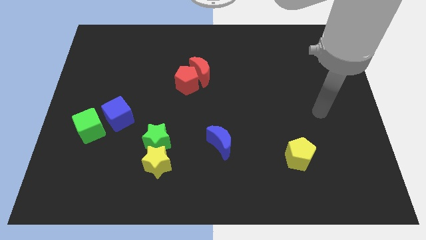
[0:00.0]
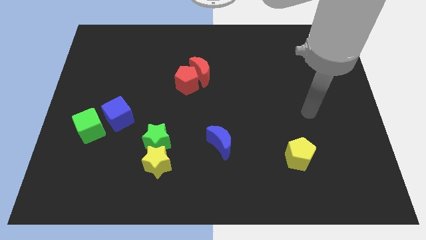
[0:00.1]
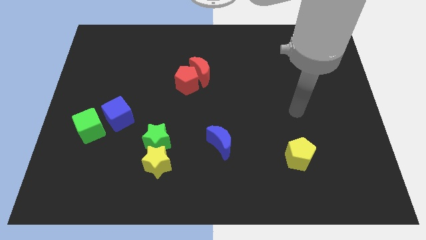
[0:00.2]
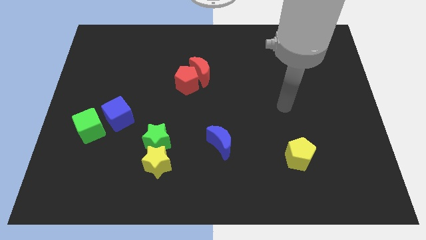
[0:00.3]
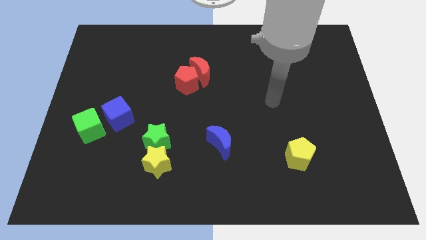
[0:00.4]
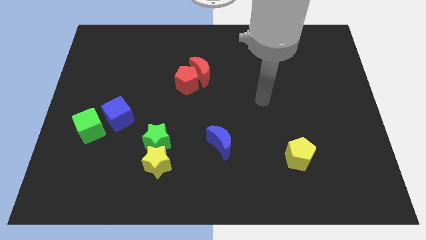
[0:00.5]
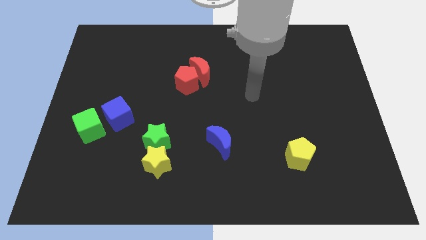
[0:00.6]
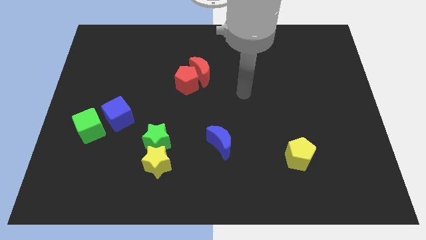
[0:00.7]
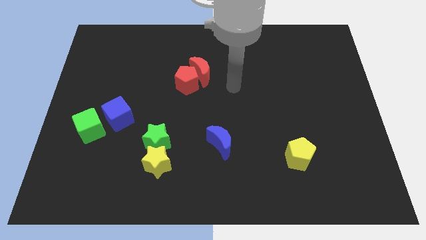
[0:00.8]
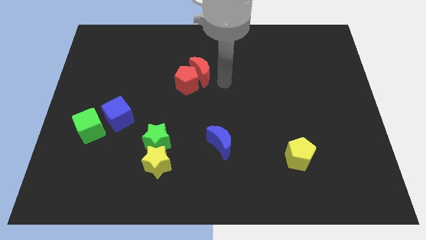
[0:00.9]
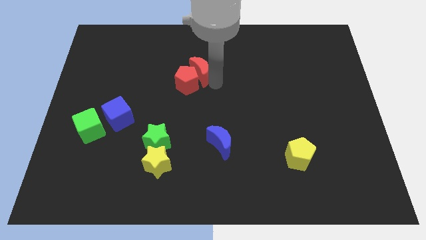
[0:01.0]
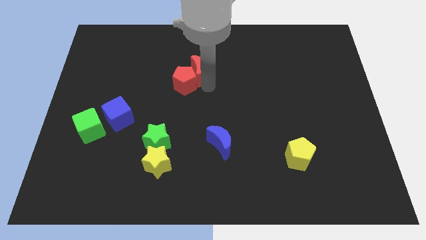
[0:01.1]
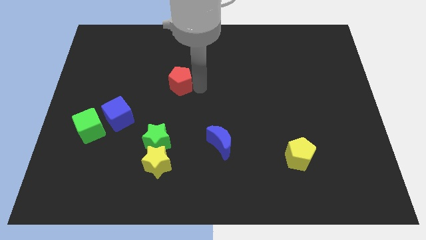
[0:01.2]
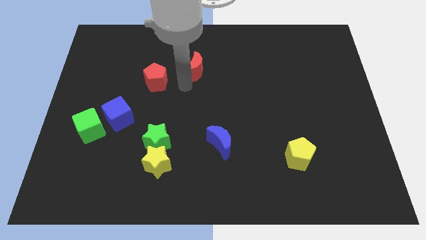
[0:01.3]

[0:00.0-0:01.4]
pull the red moon apart from the red pentagon

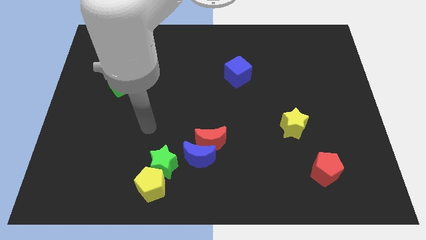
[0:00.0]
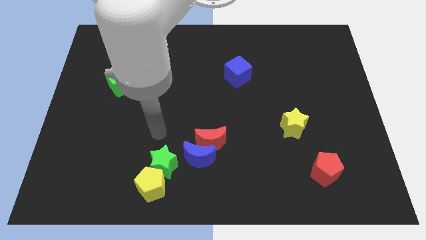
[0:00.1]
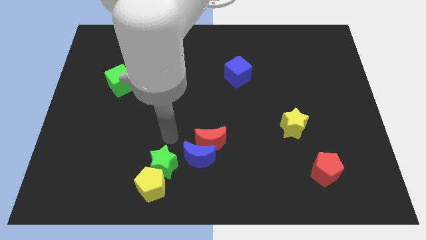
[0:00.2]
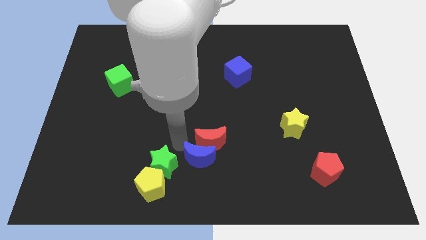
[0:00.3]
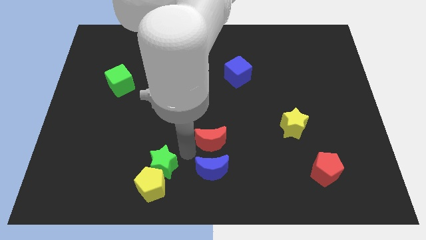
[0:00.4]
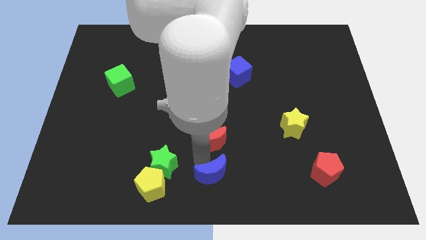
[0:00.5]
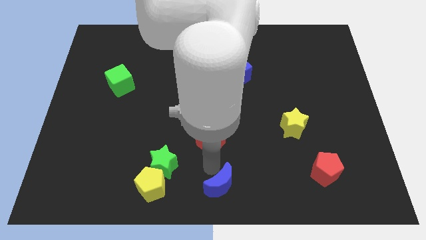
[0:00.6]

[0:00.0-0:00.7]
pull the red moon apart from the blue moon

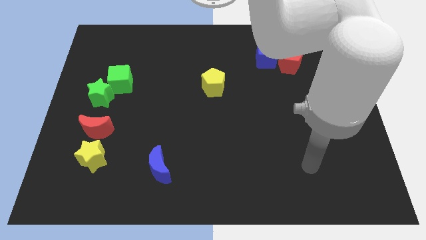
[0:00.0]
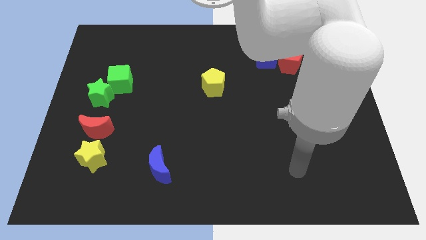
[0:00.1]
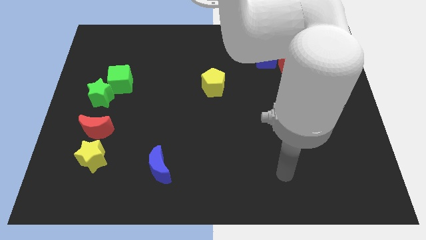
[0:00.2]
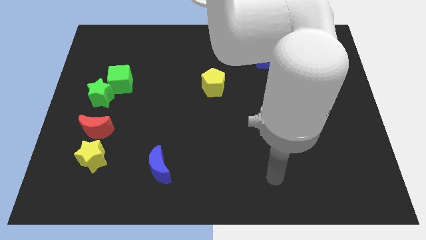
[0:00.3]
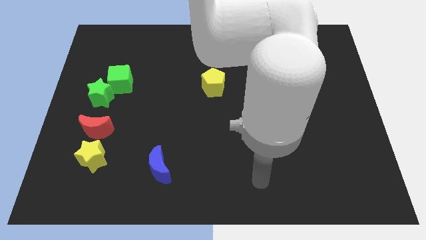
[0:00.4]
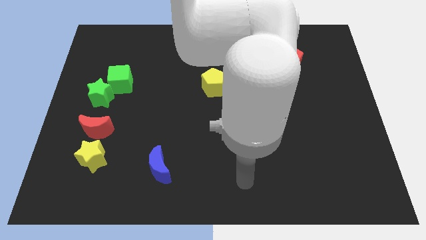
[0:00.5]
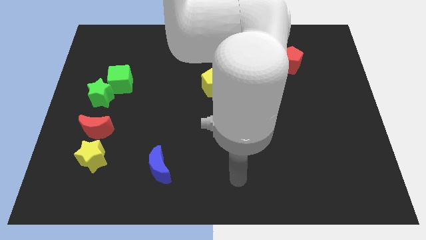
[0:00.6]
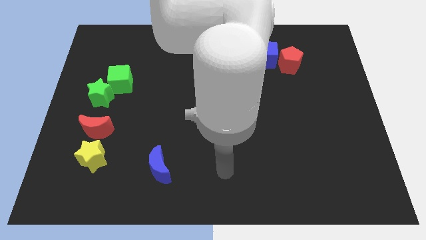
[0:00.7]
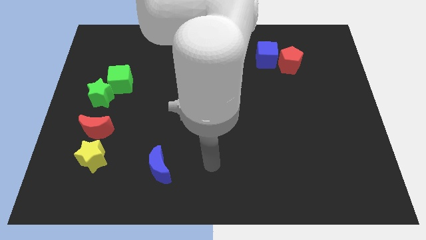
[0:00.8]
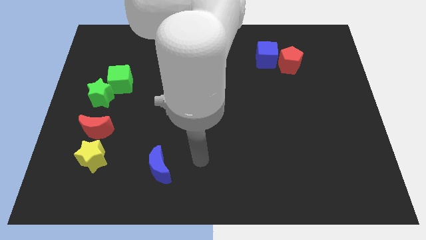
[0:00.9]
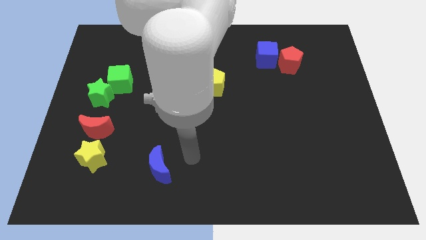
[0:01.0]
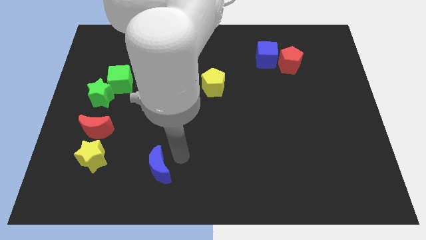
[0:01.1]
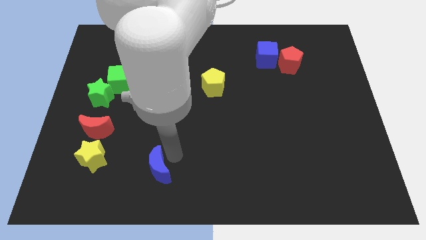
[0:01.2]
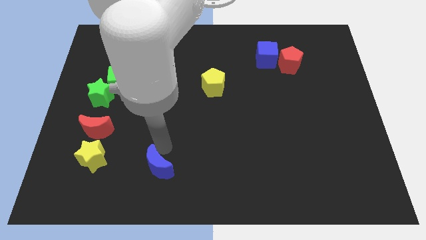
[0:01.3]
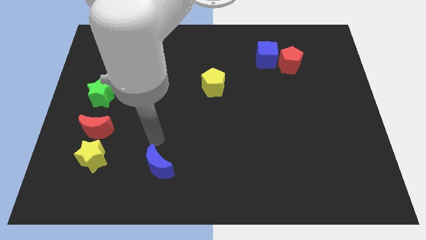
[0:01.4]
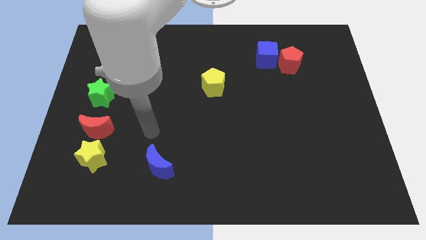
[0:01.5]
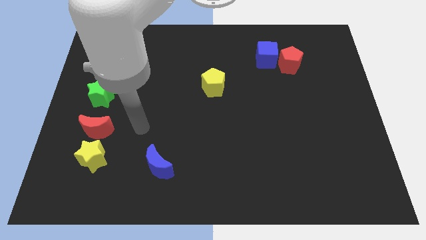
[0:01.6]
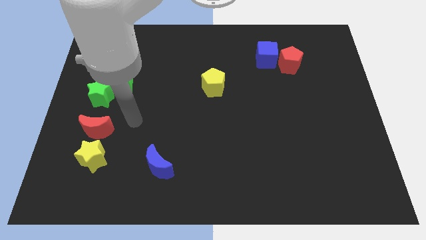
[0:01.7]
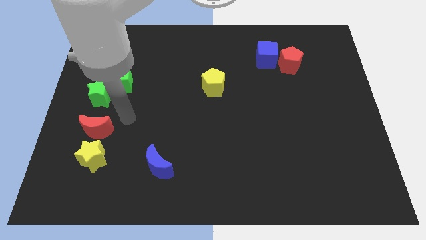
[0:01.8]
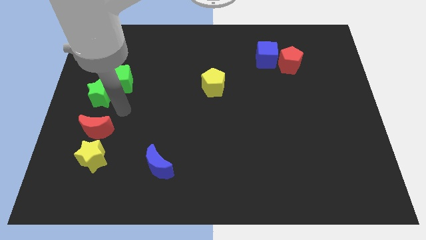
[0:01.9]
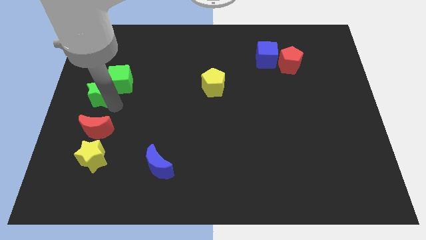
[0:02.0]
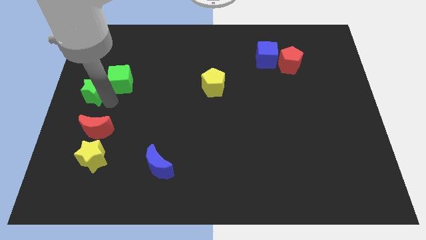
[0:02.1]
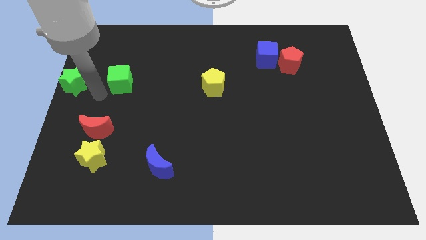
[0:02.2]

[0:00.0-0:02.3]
move the green cube away from the green star

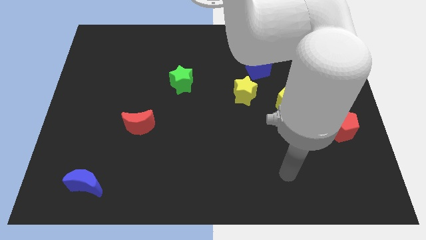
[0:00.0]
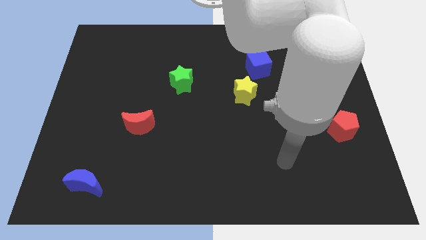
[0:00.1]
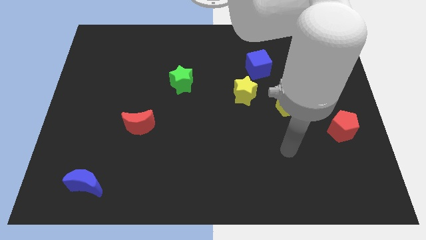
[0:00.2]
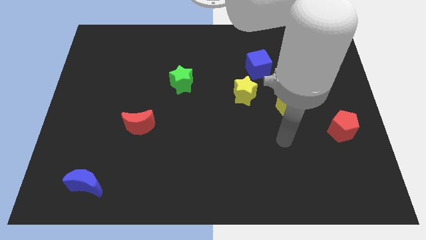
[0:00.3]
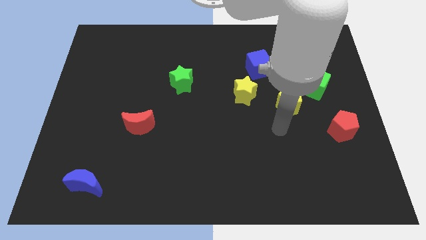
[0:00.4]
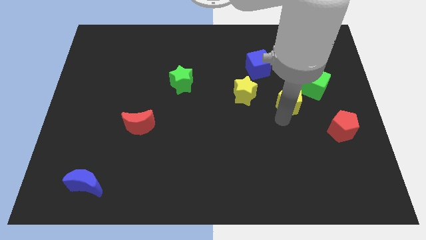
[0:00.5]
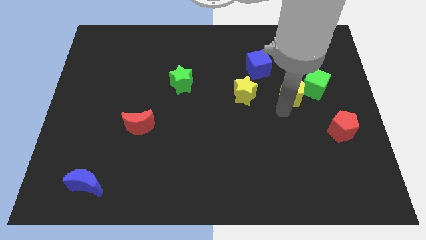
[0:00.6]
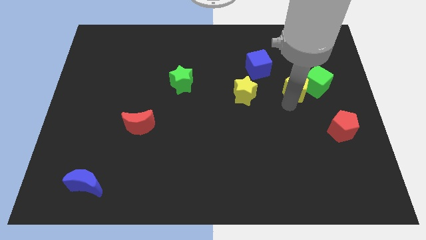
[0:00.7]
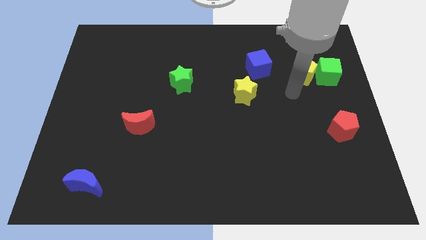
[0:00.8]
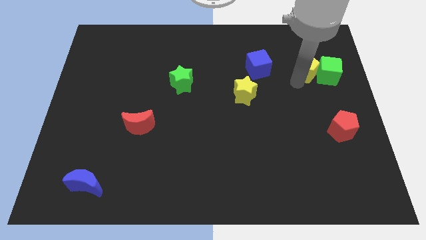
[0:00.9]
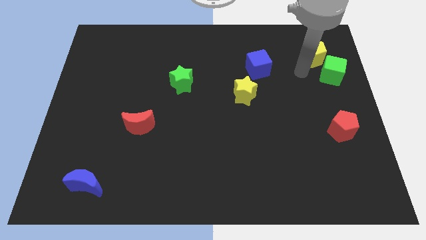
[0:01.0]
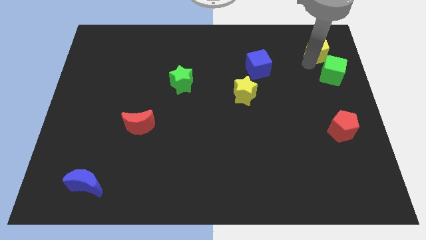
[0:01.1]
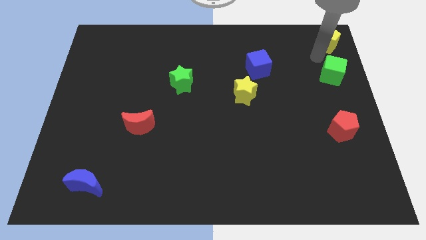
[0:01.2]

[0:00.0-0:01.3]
pull the green cube apart from the yellow pentagon

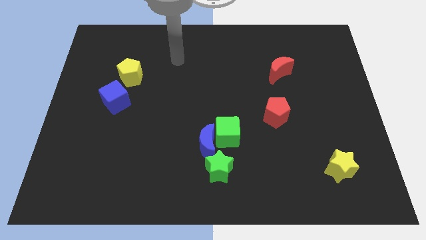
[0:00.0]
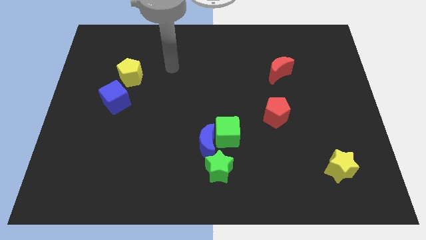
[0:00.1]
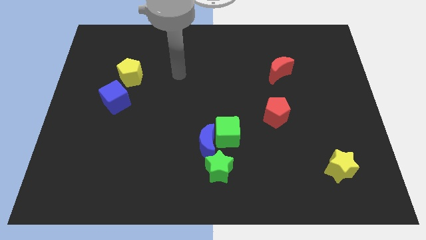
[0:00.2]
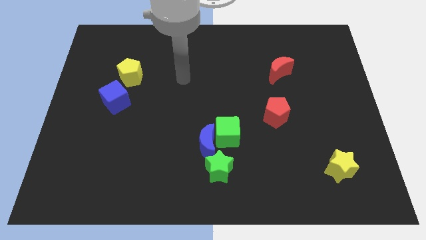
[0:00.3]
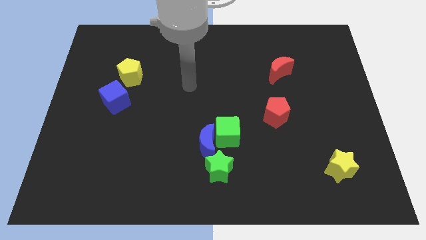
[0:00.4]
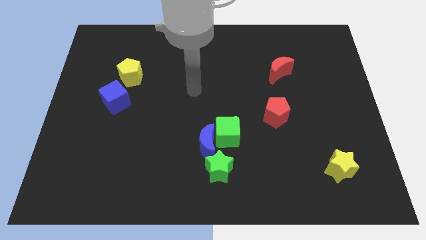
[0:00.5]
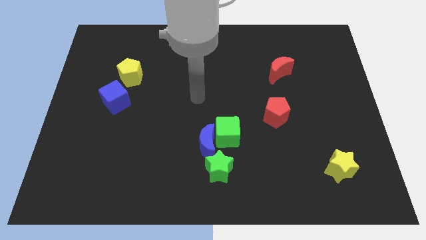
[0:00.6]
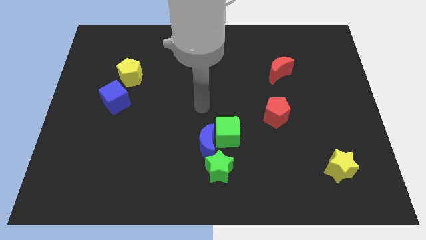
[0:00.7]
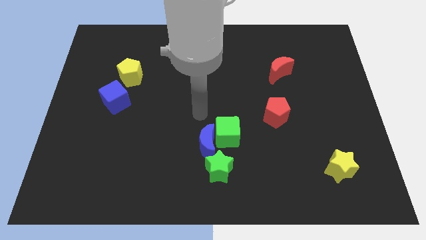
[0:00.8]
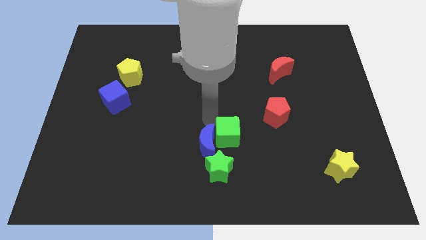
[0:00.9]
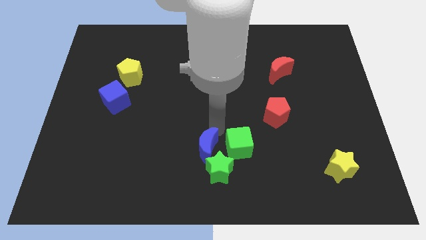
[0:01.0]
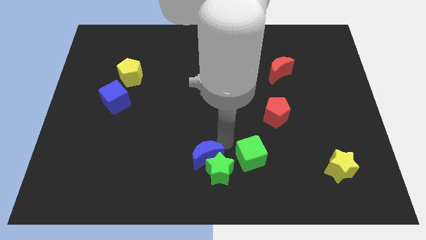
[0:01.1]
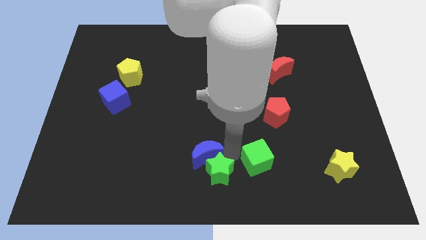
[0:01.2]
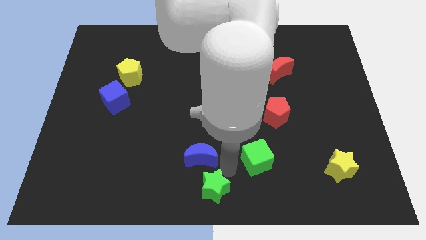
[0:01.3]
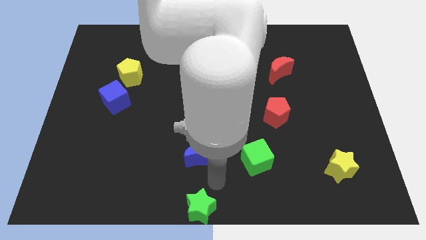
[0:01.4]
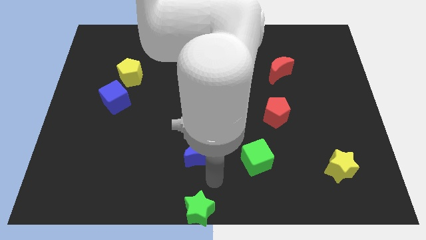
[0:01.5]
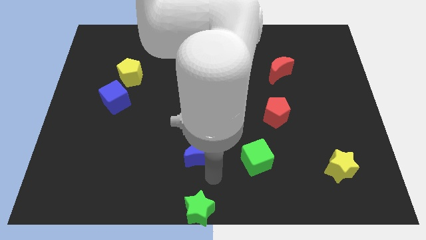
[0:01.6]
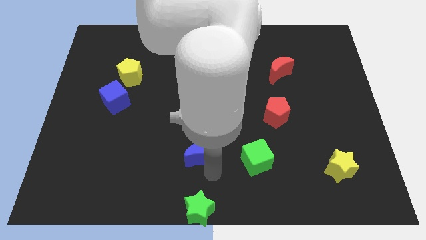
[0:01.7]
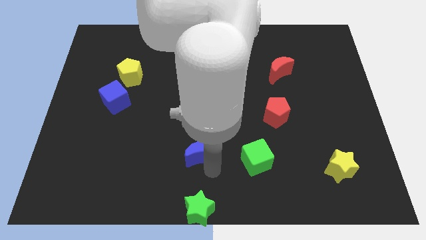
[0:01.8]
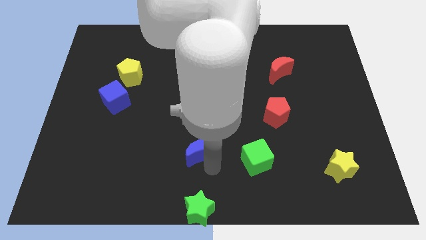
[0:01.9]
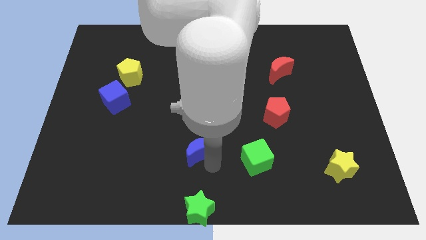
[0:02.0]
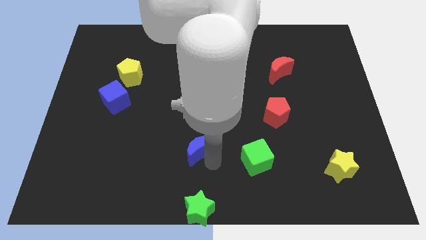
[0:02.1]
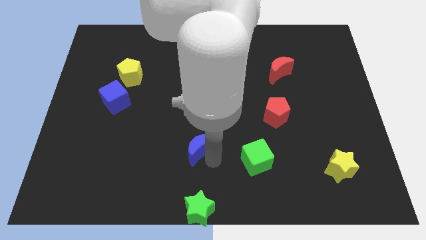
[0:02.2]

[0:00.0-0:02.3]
pull the blue moon apart from the green cube and green star

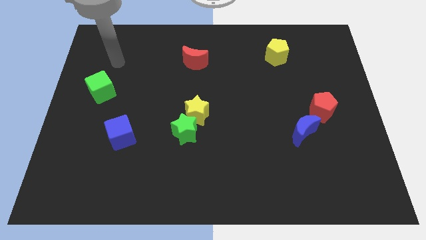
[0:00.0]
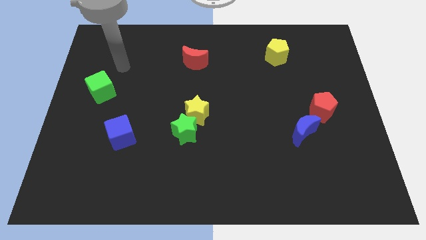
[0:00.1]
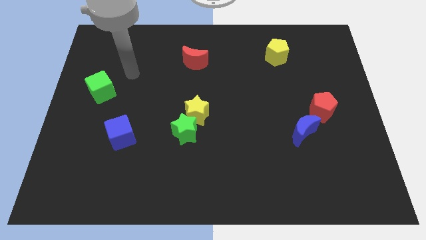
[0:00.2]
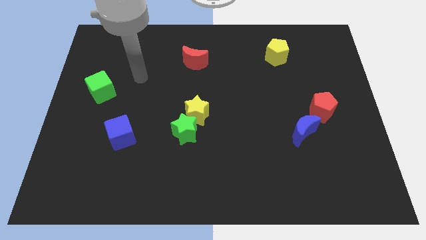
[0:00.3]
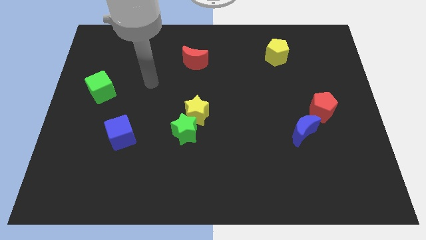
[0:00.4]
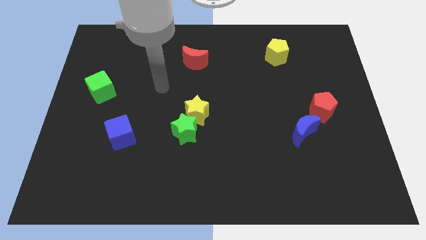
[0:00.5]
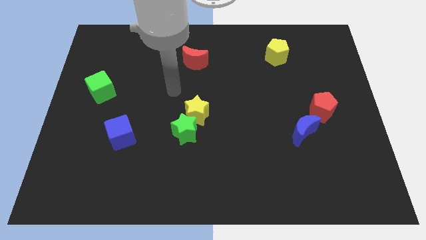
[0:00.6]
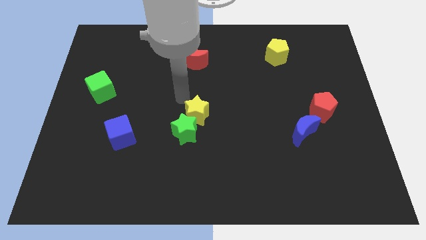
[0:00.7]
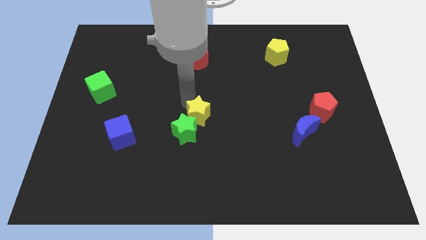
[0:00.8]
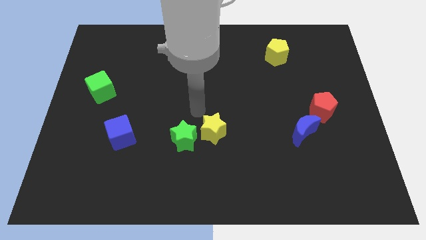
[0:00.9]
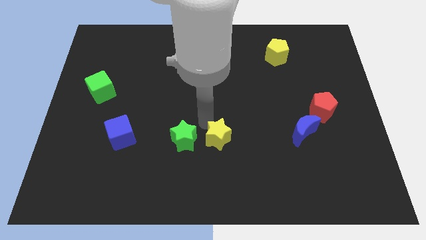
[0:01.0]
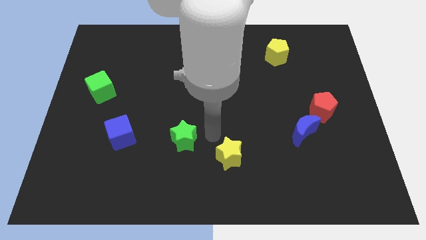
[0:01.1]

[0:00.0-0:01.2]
pull the green star apart from the yellow star
